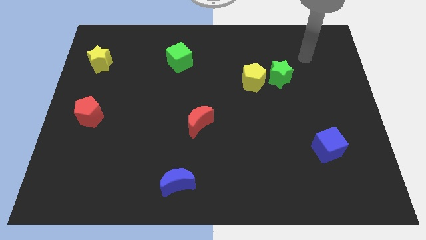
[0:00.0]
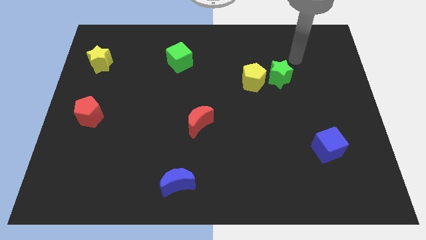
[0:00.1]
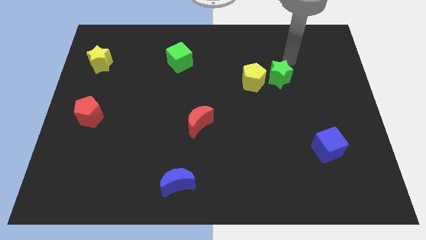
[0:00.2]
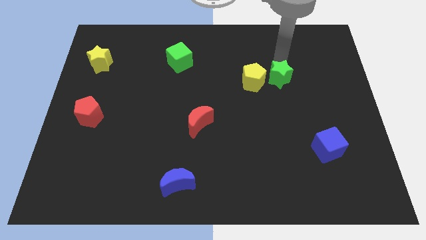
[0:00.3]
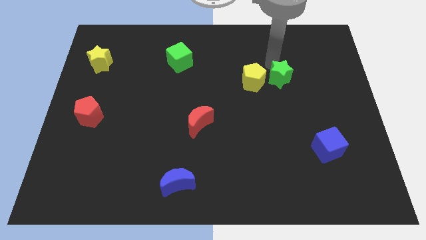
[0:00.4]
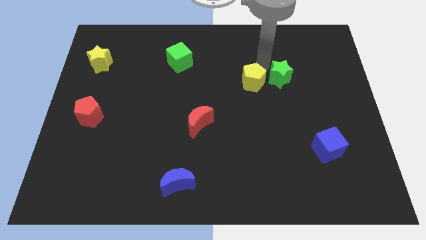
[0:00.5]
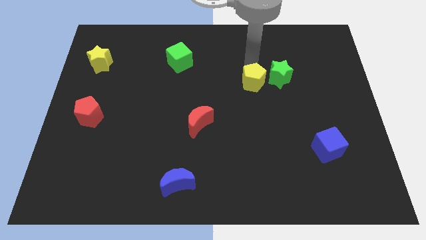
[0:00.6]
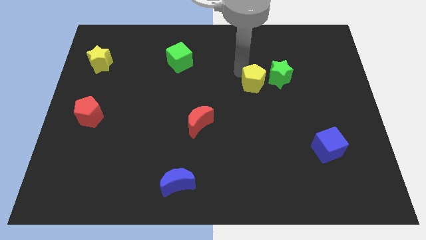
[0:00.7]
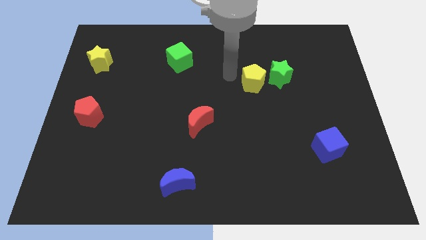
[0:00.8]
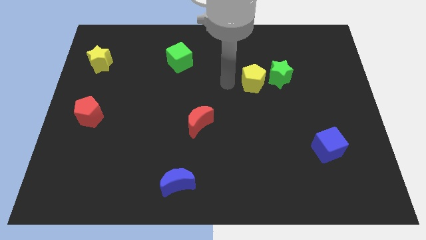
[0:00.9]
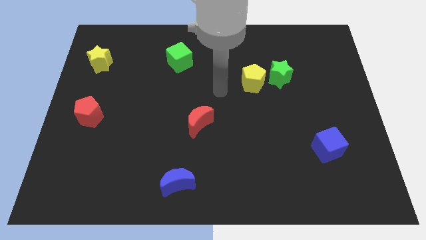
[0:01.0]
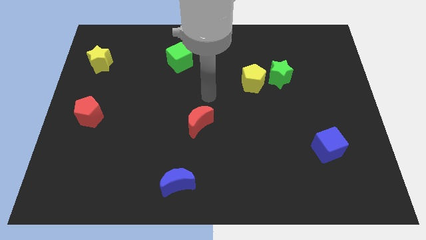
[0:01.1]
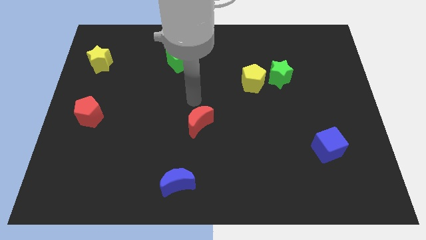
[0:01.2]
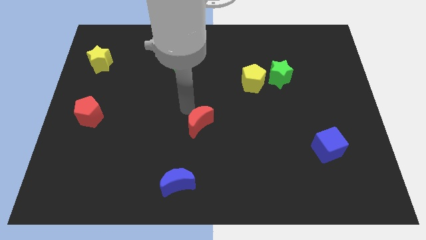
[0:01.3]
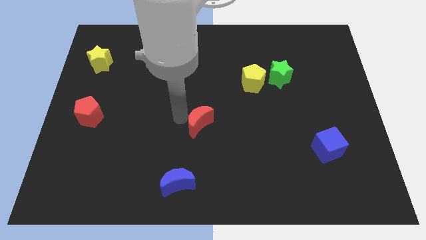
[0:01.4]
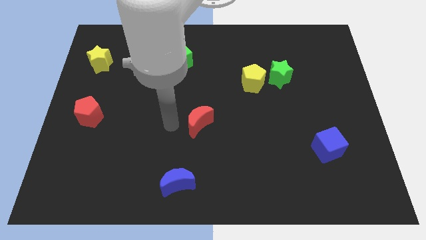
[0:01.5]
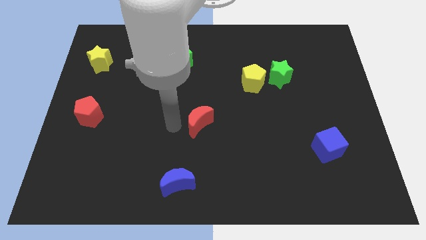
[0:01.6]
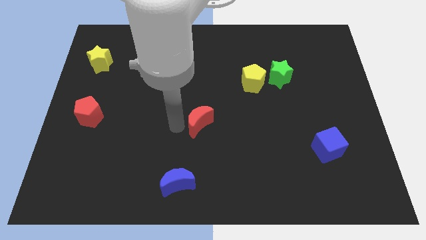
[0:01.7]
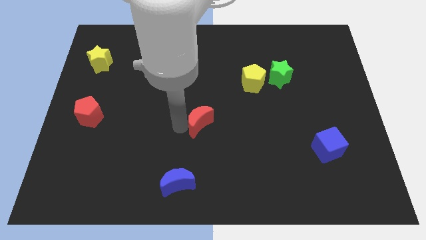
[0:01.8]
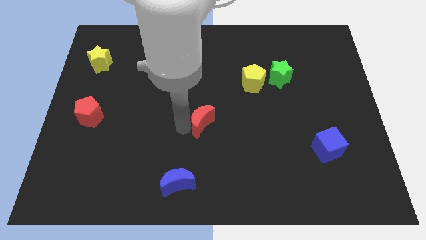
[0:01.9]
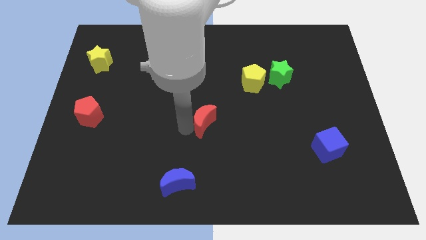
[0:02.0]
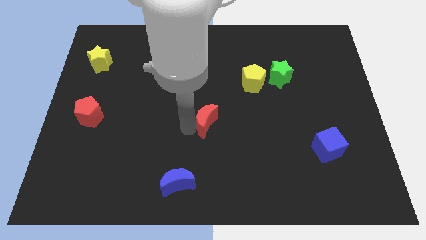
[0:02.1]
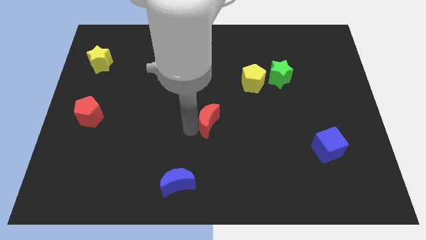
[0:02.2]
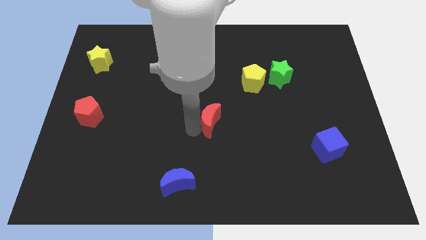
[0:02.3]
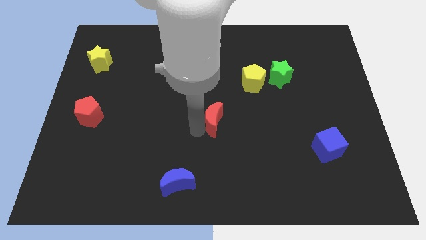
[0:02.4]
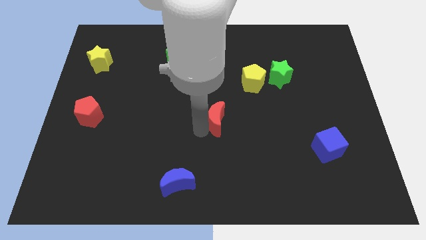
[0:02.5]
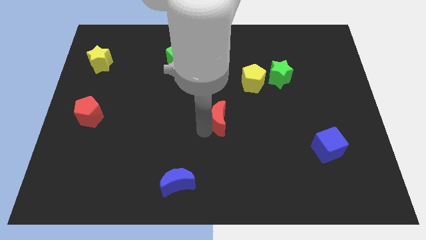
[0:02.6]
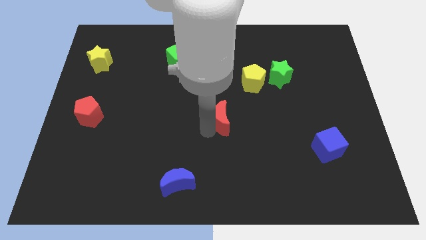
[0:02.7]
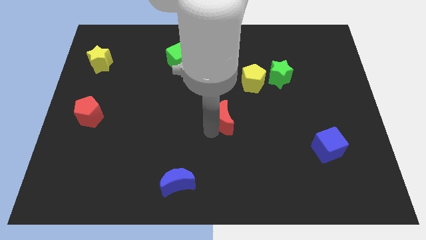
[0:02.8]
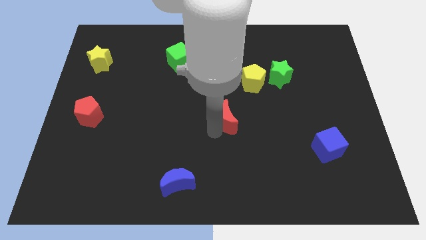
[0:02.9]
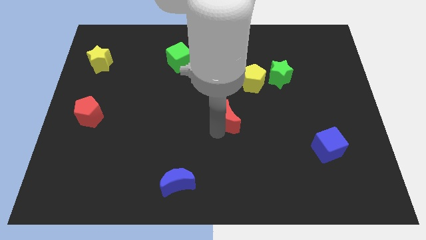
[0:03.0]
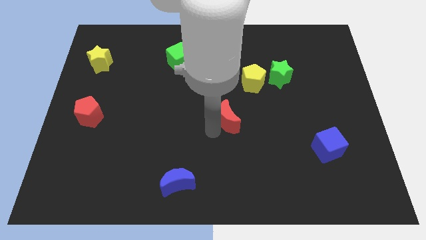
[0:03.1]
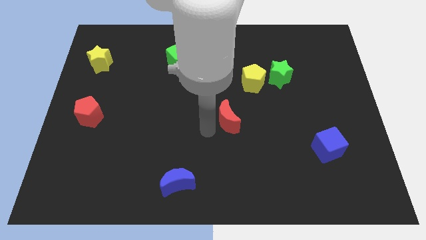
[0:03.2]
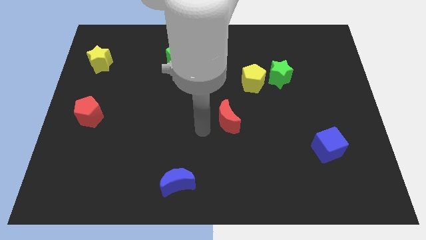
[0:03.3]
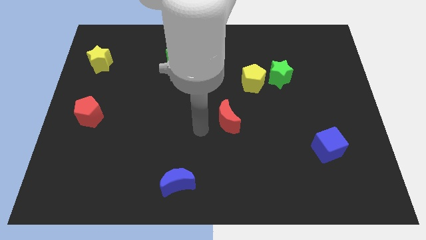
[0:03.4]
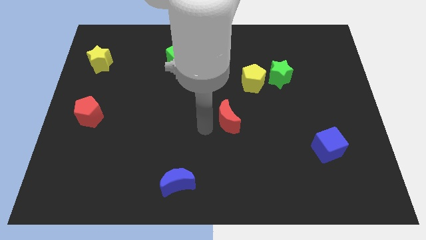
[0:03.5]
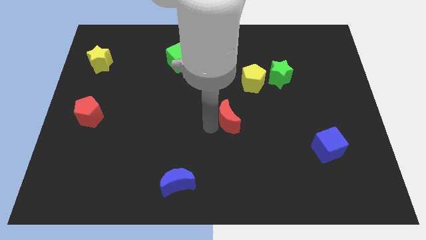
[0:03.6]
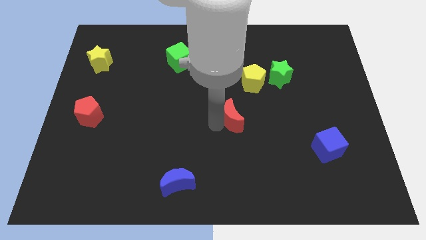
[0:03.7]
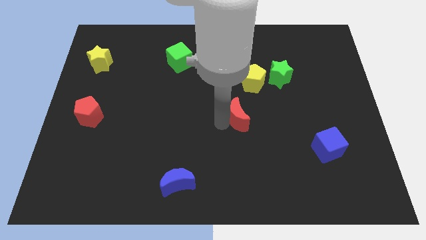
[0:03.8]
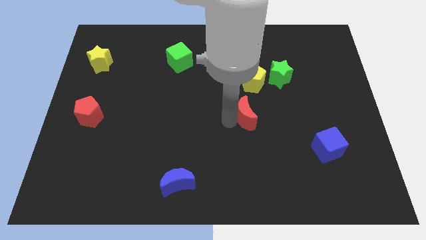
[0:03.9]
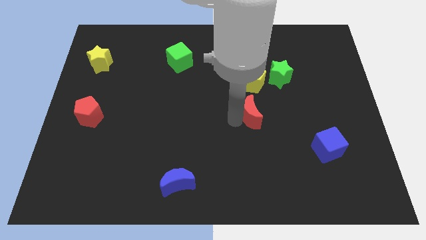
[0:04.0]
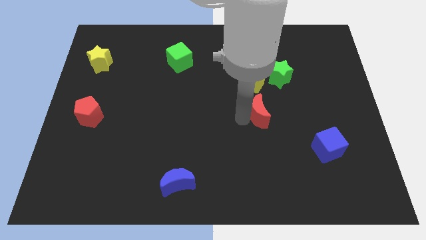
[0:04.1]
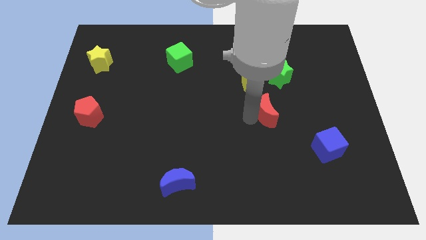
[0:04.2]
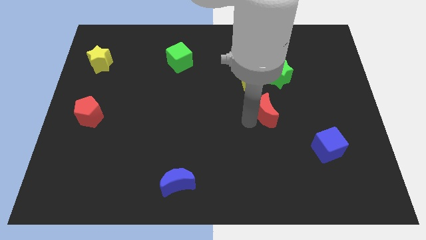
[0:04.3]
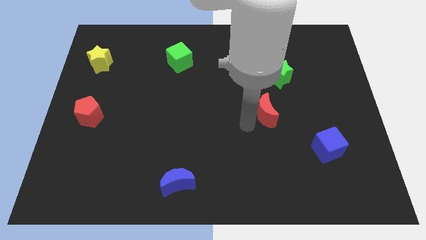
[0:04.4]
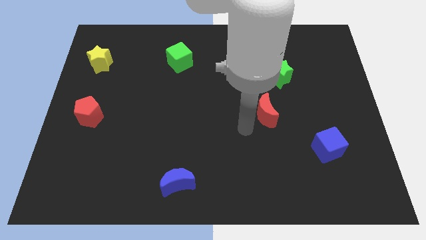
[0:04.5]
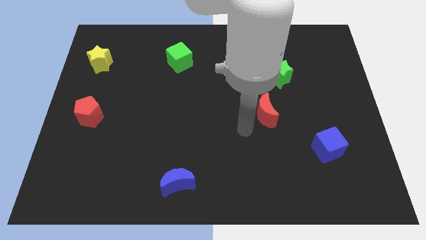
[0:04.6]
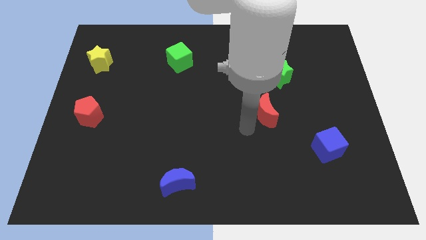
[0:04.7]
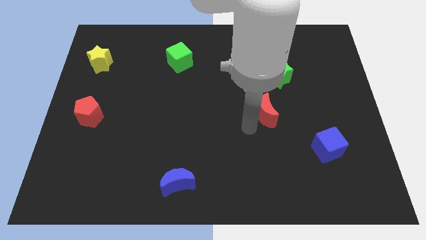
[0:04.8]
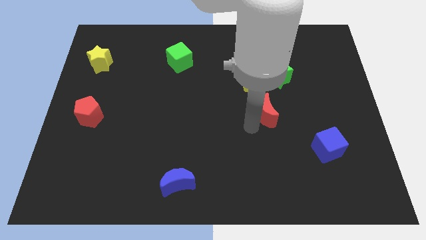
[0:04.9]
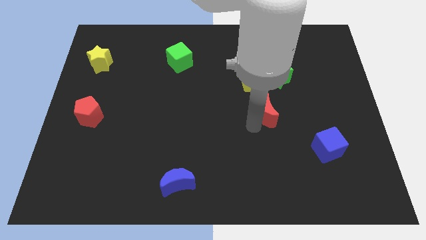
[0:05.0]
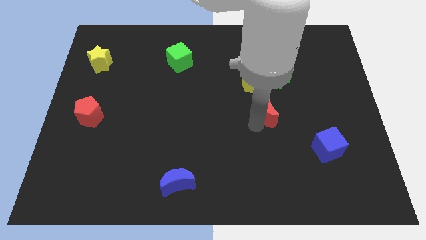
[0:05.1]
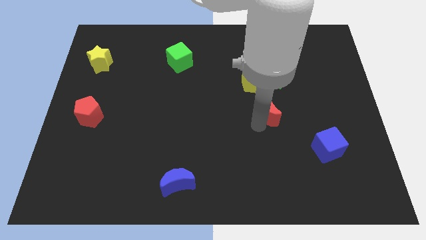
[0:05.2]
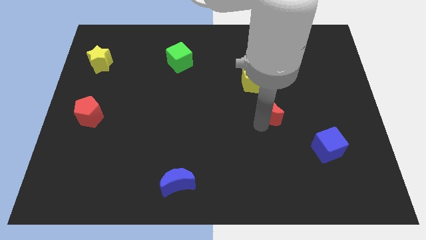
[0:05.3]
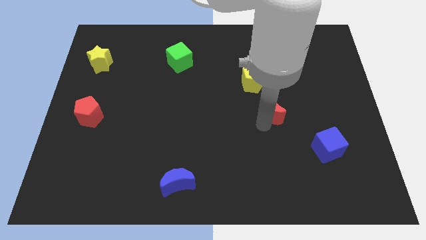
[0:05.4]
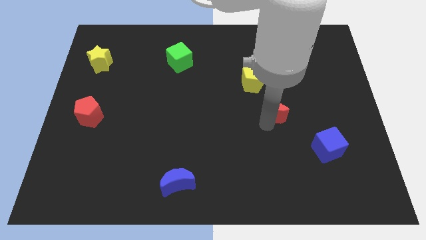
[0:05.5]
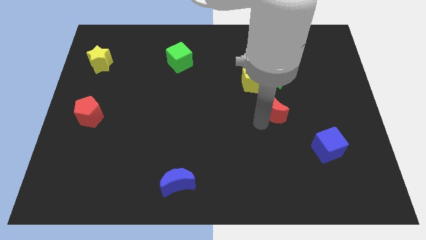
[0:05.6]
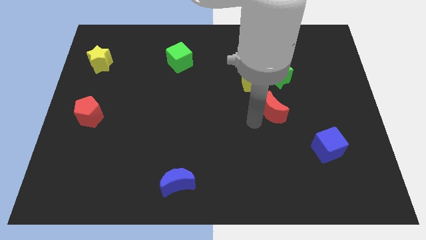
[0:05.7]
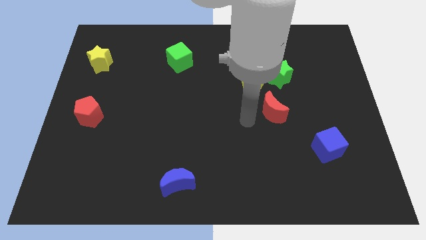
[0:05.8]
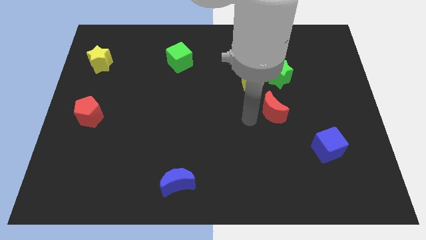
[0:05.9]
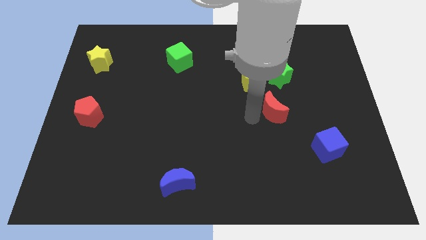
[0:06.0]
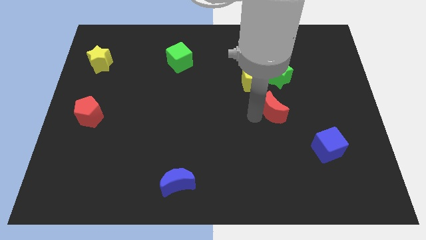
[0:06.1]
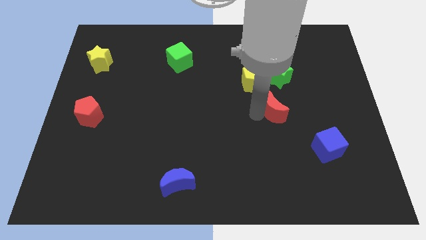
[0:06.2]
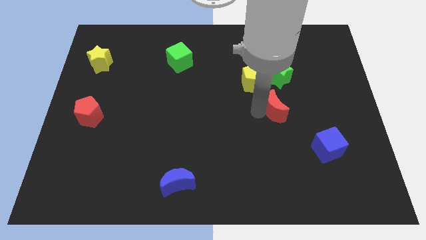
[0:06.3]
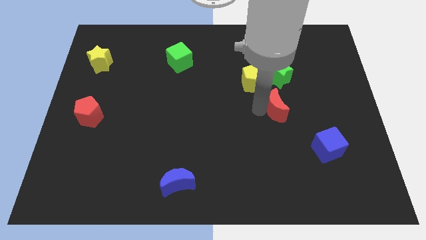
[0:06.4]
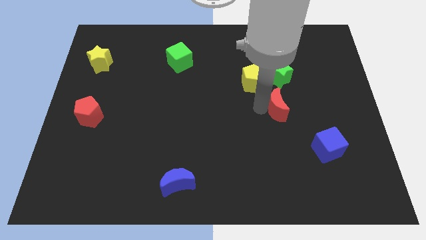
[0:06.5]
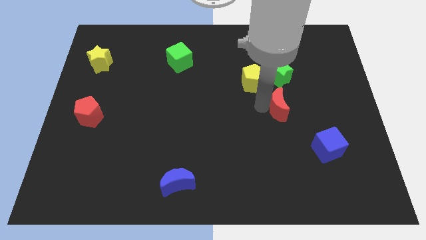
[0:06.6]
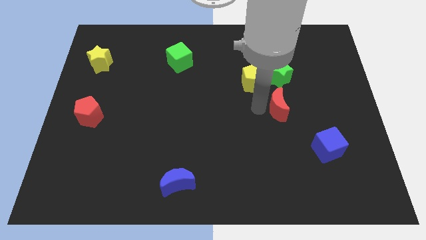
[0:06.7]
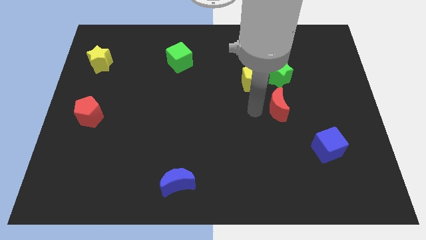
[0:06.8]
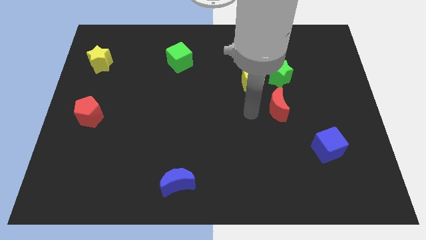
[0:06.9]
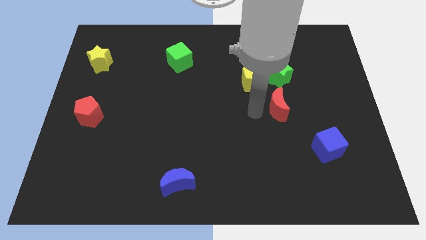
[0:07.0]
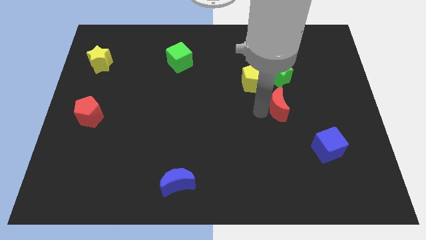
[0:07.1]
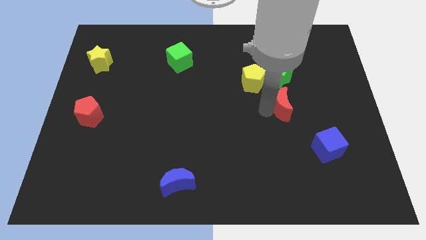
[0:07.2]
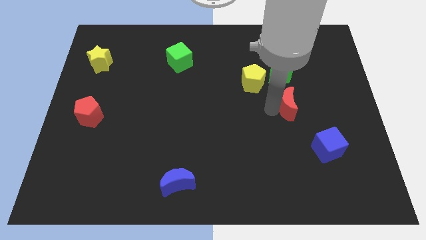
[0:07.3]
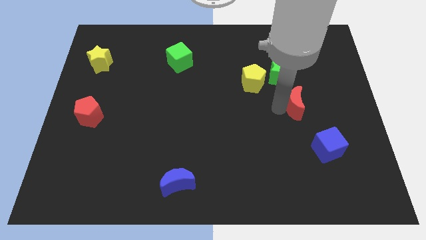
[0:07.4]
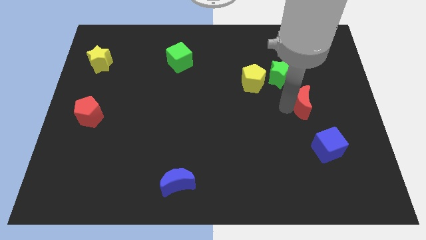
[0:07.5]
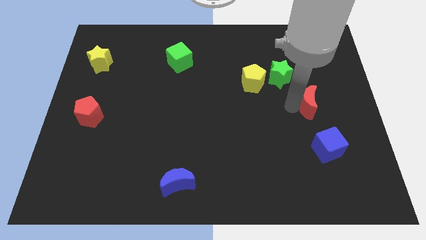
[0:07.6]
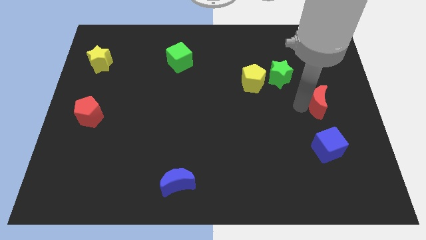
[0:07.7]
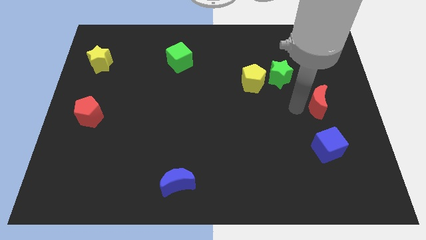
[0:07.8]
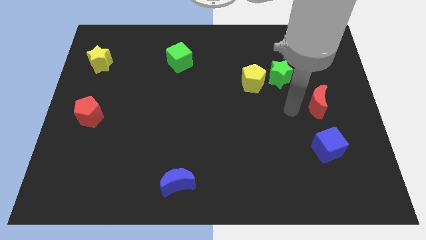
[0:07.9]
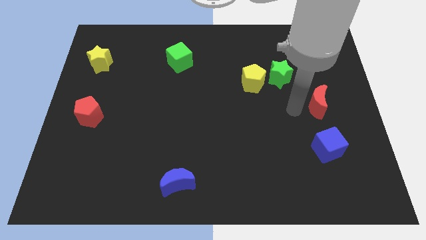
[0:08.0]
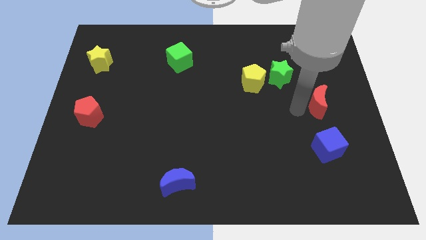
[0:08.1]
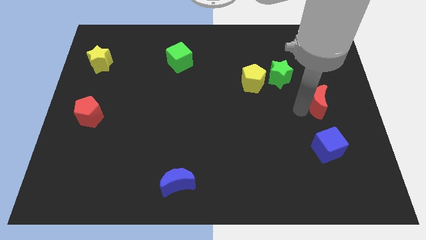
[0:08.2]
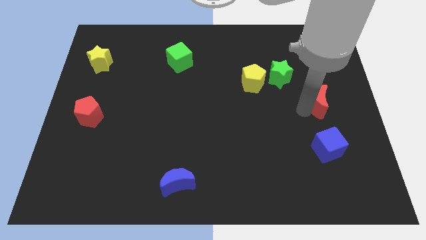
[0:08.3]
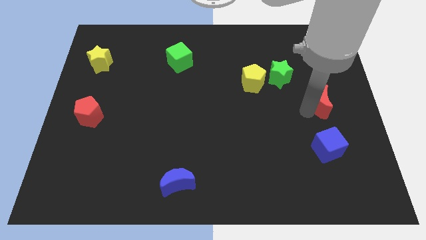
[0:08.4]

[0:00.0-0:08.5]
slide the red moon to the center right
